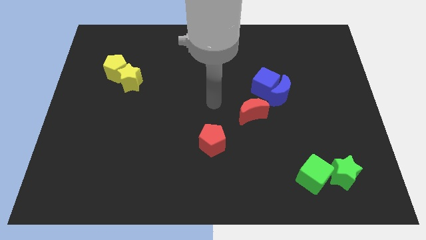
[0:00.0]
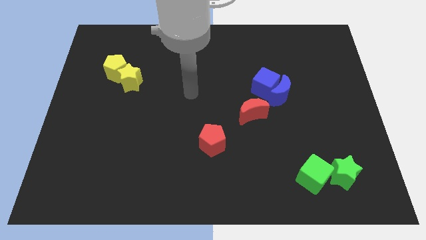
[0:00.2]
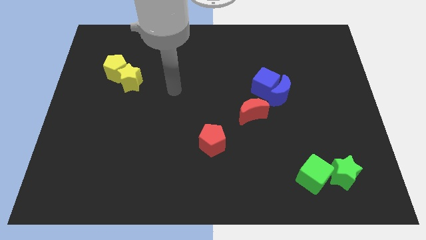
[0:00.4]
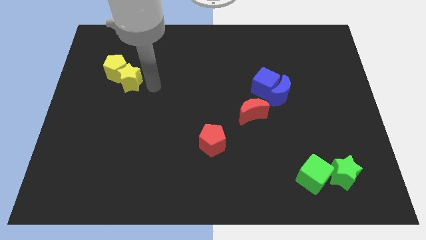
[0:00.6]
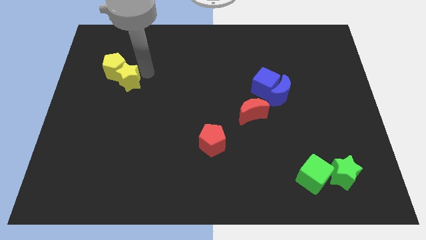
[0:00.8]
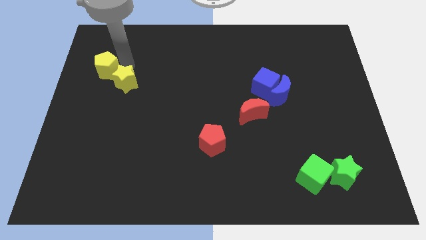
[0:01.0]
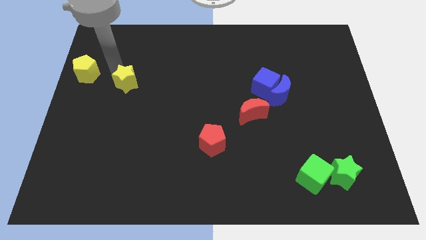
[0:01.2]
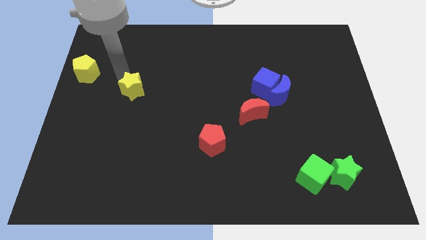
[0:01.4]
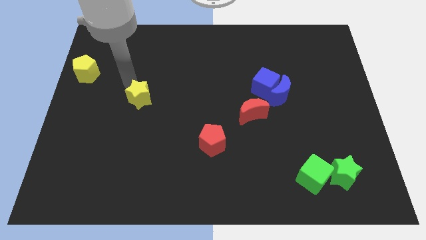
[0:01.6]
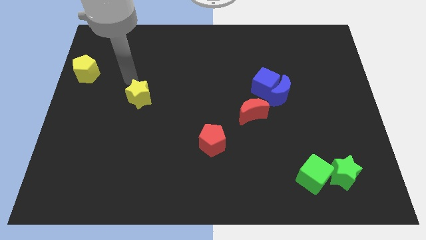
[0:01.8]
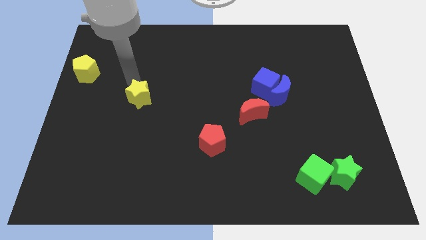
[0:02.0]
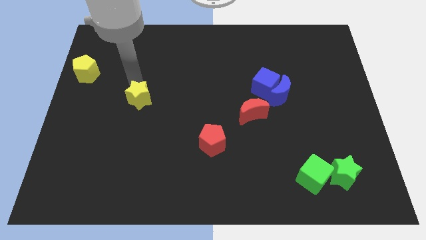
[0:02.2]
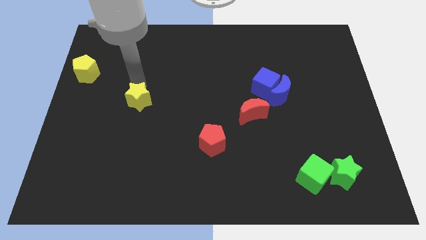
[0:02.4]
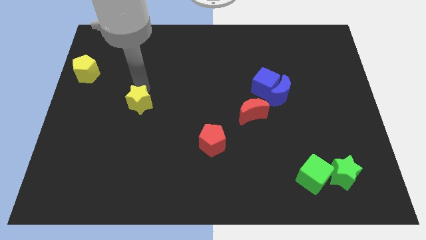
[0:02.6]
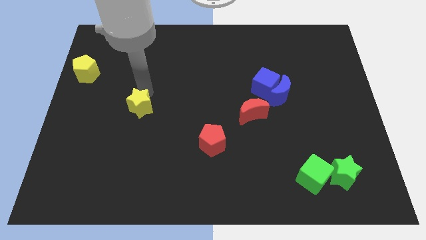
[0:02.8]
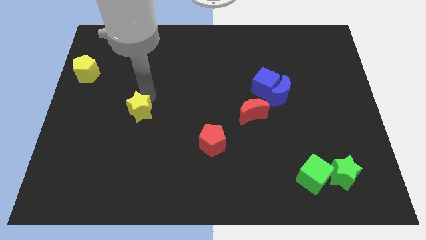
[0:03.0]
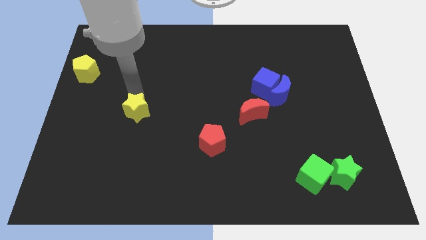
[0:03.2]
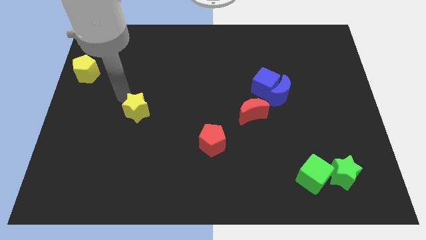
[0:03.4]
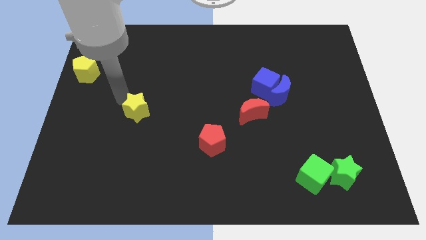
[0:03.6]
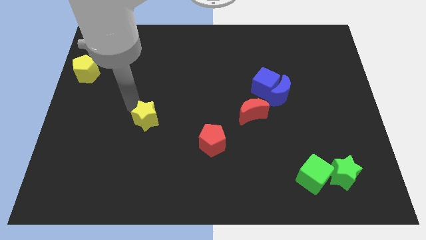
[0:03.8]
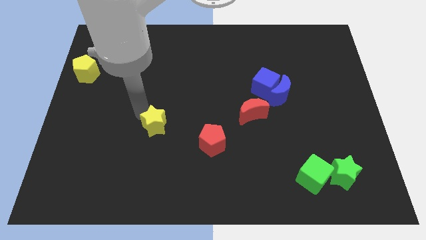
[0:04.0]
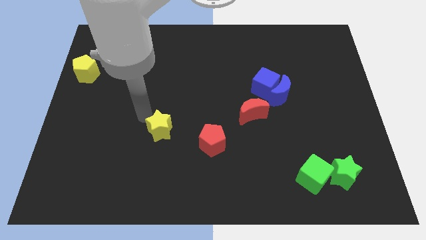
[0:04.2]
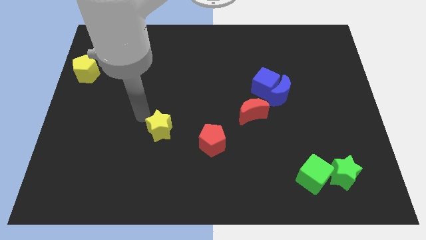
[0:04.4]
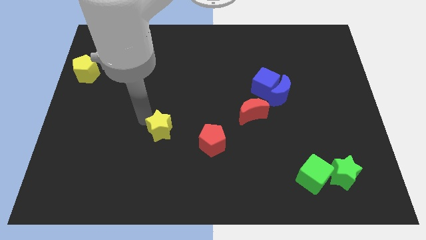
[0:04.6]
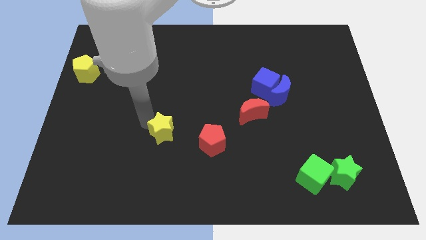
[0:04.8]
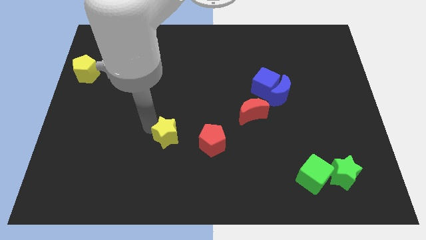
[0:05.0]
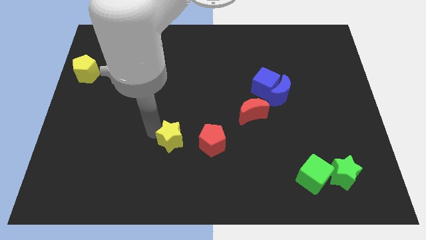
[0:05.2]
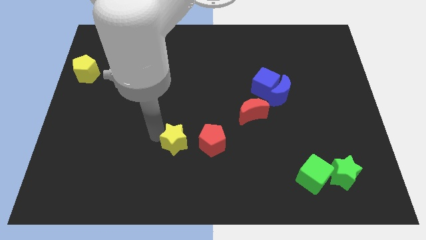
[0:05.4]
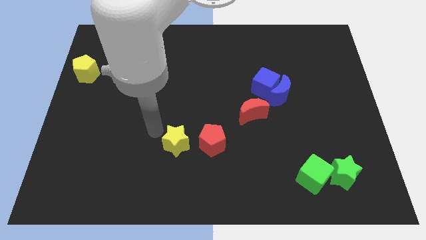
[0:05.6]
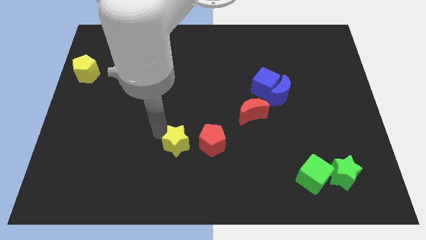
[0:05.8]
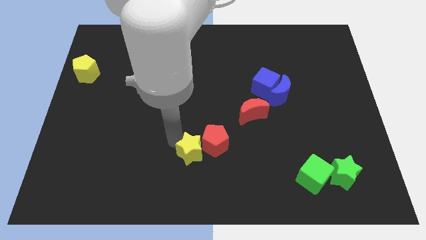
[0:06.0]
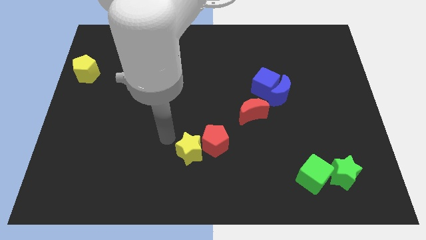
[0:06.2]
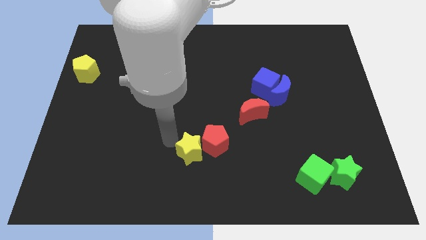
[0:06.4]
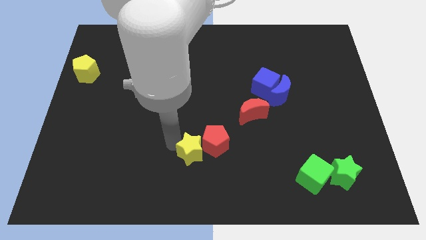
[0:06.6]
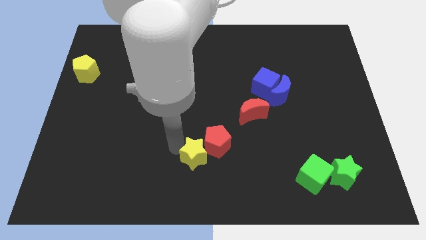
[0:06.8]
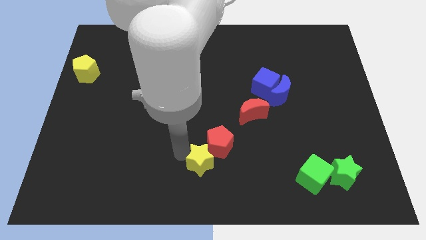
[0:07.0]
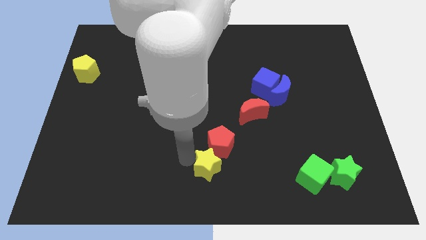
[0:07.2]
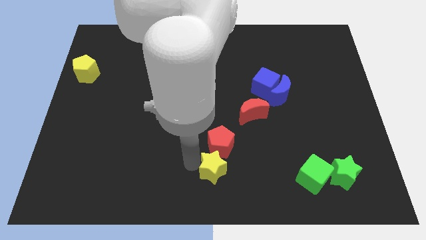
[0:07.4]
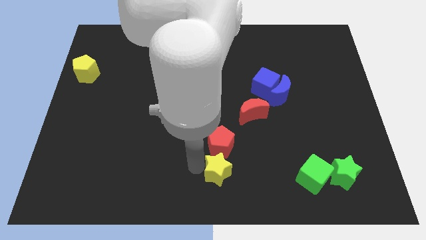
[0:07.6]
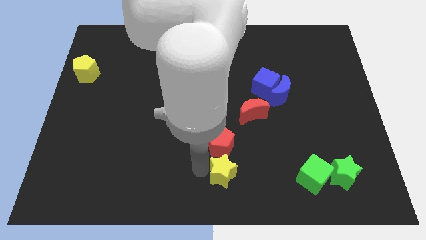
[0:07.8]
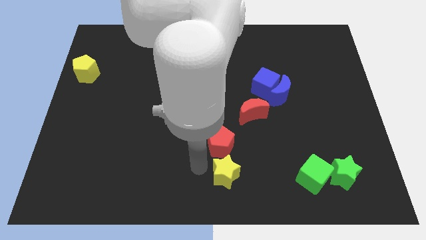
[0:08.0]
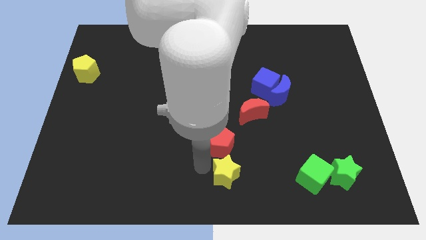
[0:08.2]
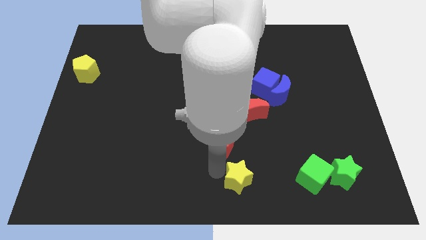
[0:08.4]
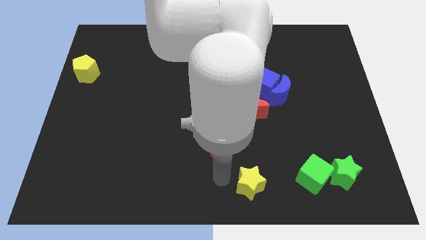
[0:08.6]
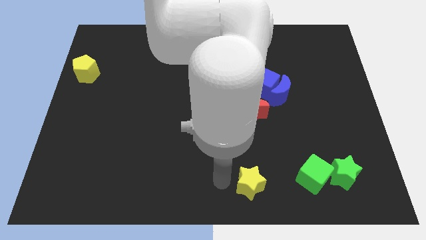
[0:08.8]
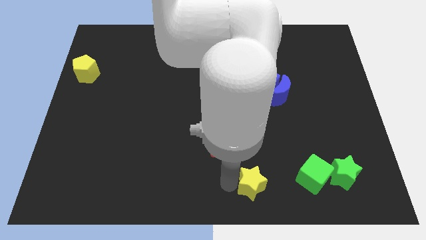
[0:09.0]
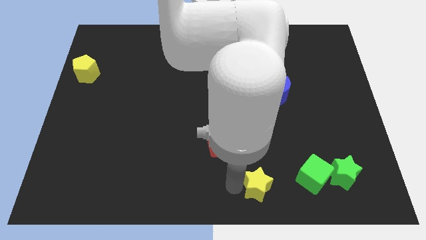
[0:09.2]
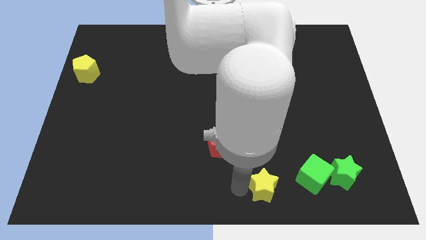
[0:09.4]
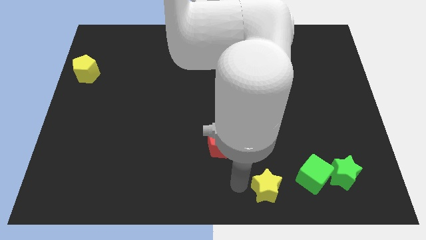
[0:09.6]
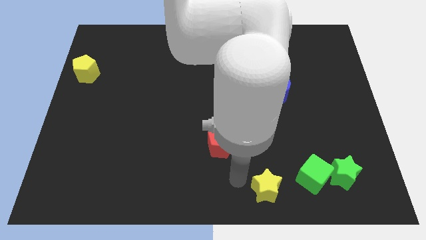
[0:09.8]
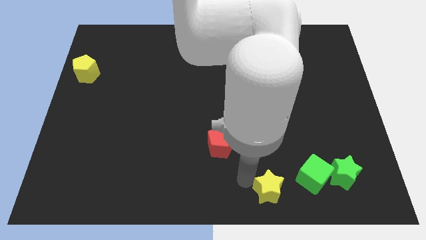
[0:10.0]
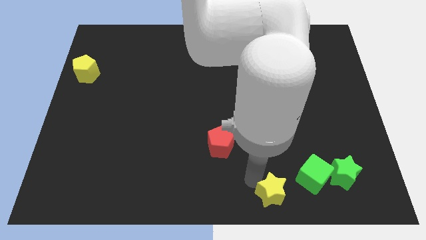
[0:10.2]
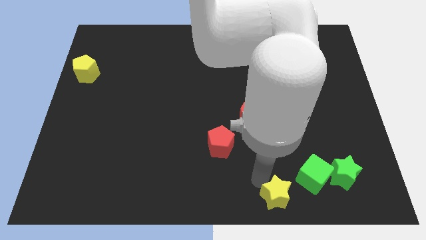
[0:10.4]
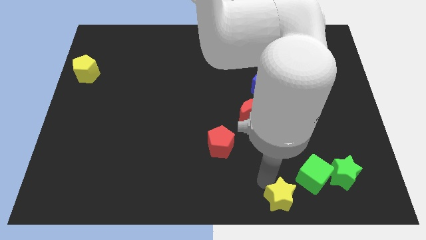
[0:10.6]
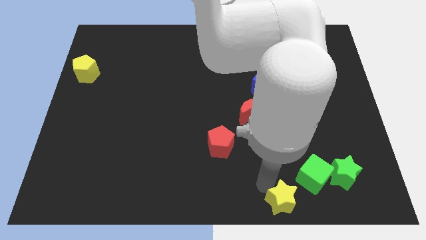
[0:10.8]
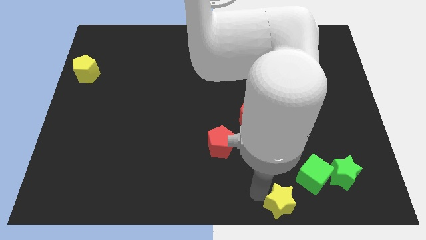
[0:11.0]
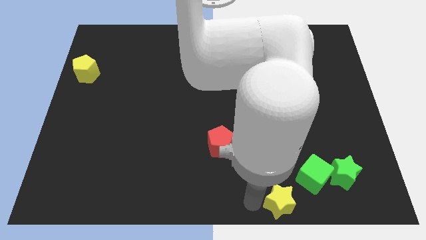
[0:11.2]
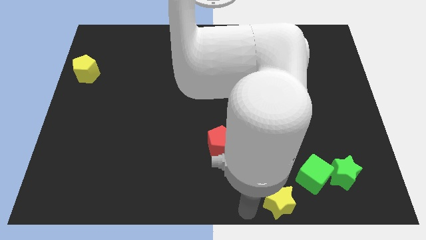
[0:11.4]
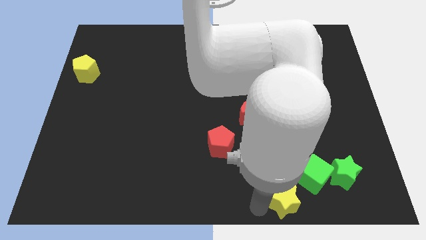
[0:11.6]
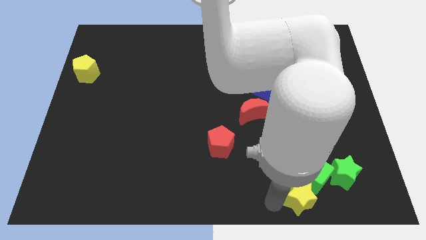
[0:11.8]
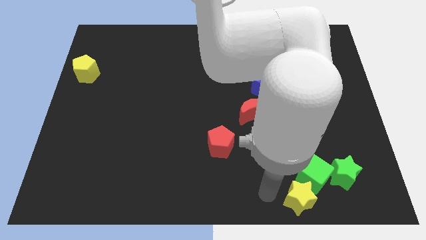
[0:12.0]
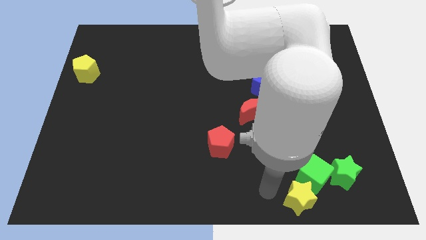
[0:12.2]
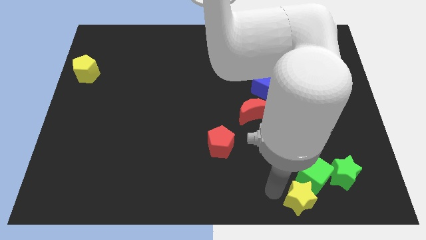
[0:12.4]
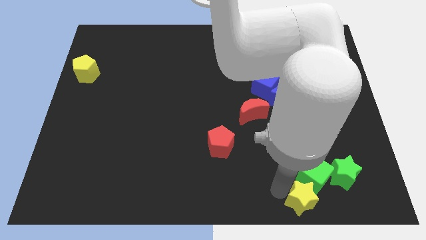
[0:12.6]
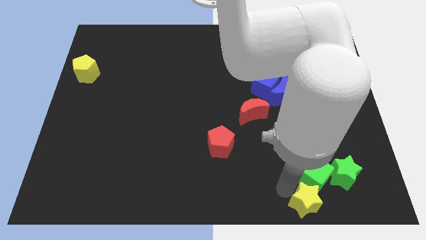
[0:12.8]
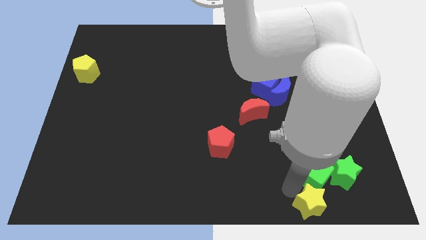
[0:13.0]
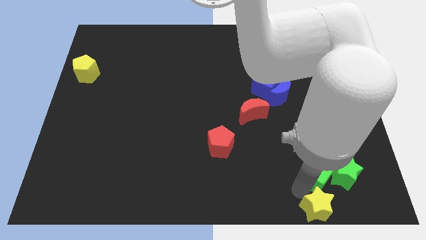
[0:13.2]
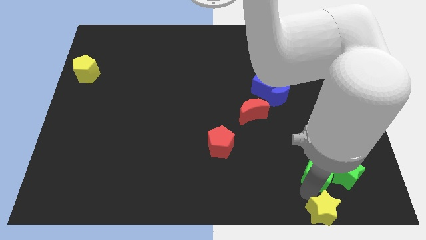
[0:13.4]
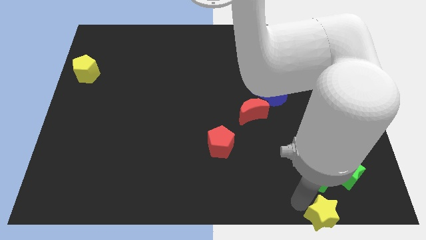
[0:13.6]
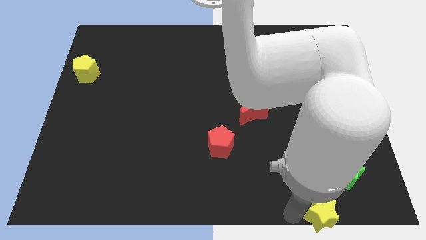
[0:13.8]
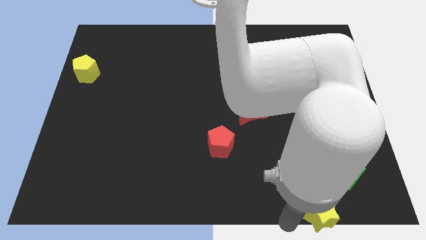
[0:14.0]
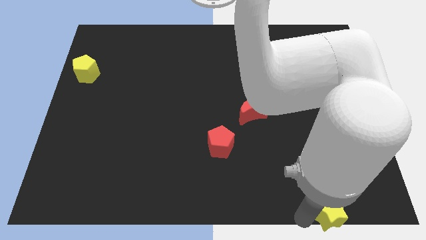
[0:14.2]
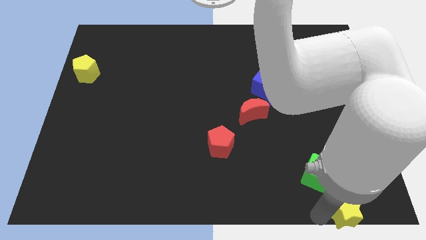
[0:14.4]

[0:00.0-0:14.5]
put the yellow star to the lower right corner
